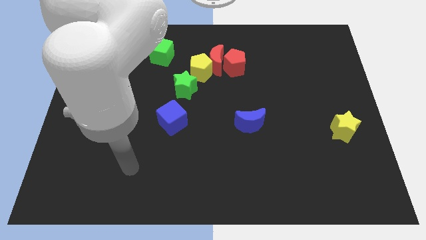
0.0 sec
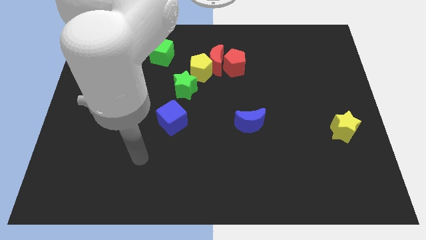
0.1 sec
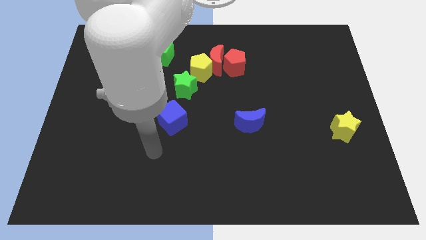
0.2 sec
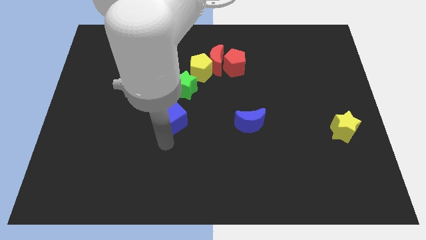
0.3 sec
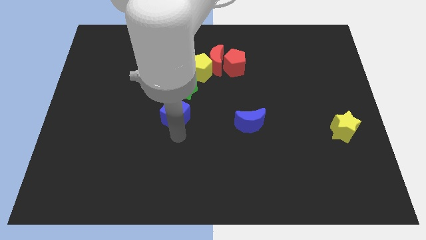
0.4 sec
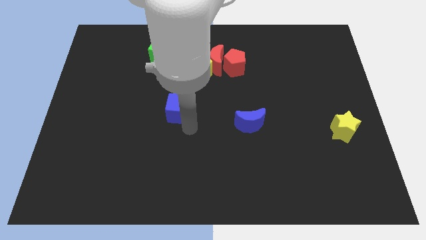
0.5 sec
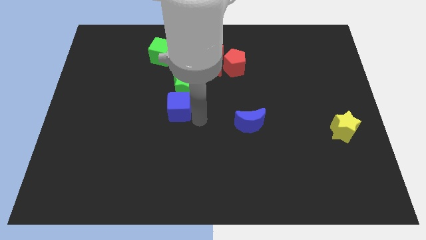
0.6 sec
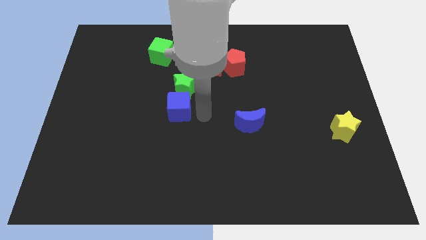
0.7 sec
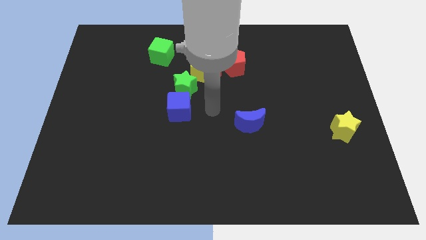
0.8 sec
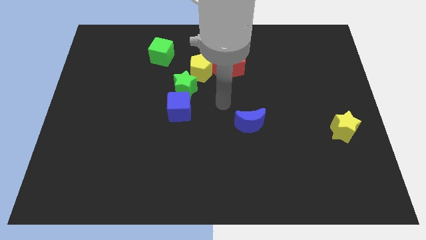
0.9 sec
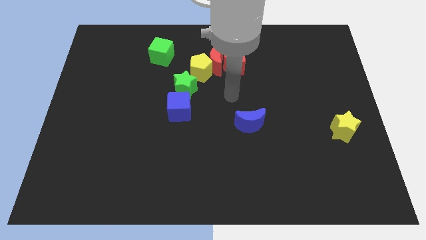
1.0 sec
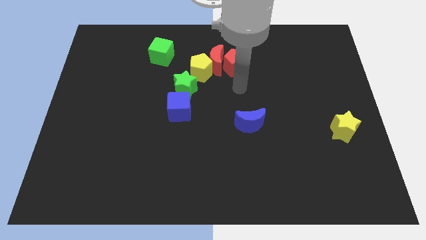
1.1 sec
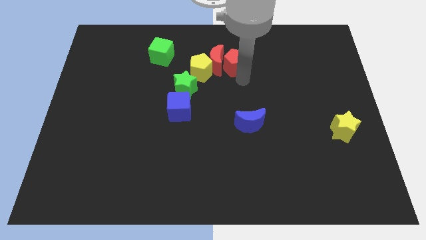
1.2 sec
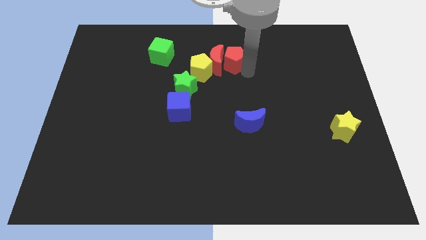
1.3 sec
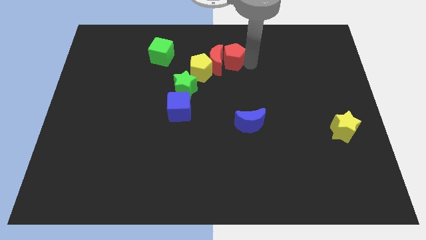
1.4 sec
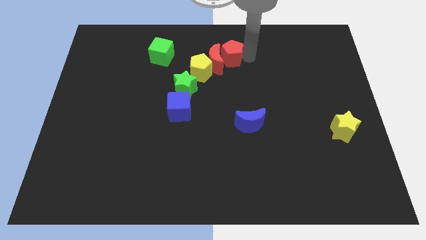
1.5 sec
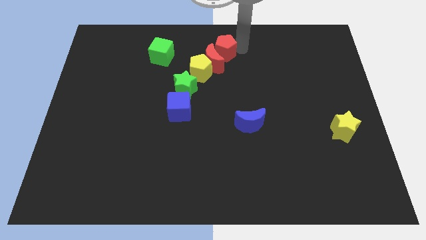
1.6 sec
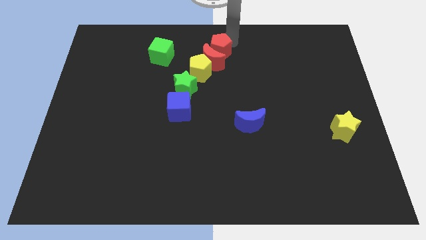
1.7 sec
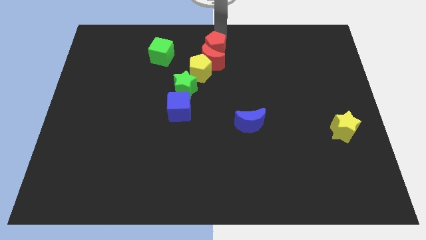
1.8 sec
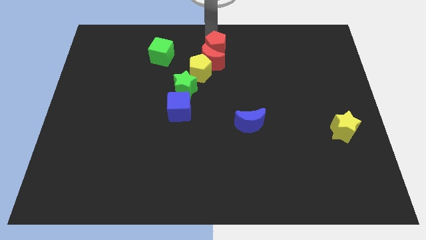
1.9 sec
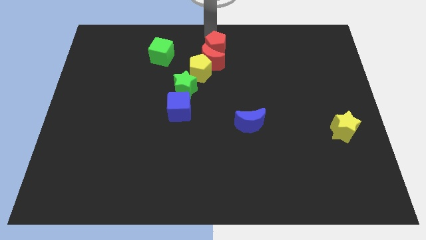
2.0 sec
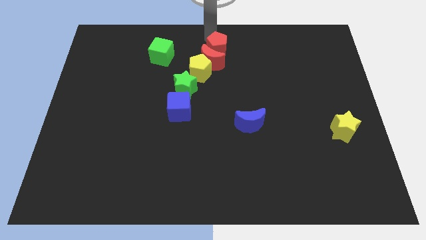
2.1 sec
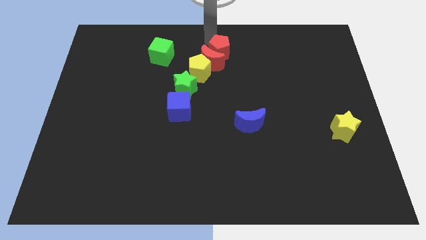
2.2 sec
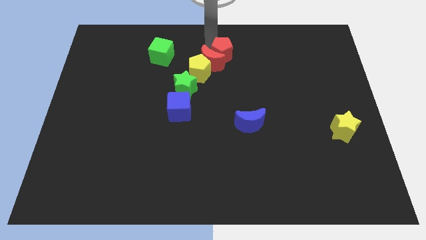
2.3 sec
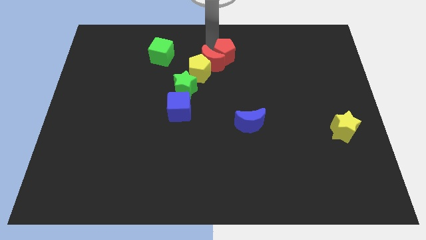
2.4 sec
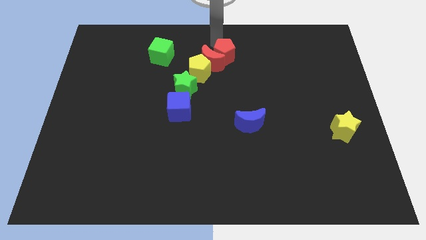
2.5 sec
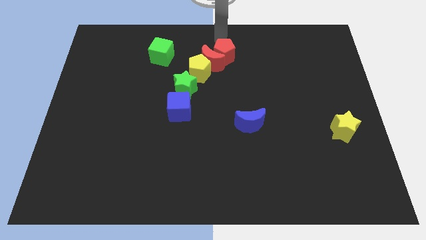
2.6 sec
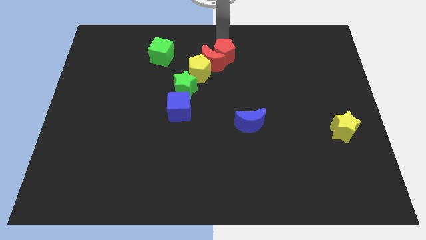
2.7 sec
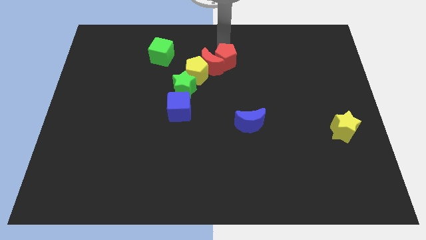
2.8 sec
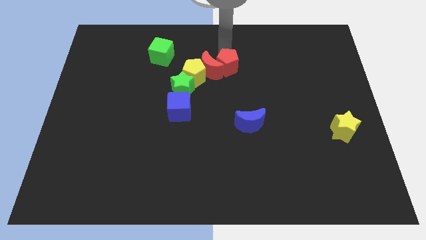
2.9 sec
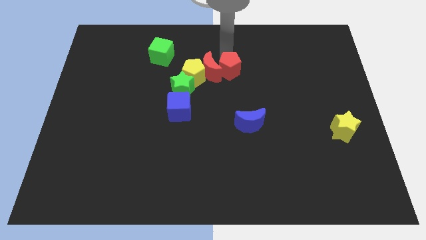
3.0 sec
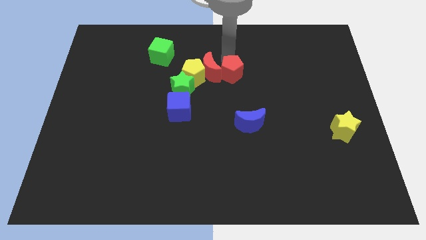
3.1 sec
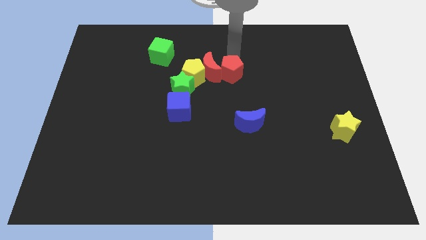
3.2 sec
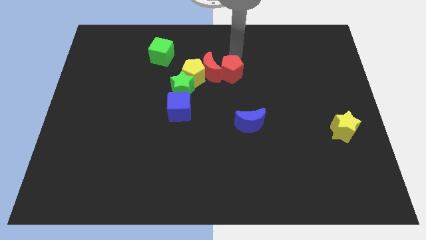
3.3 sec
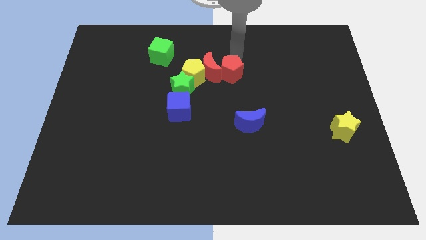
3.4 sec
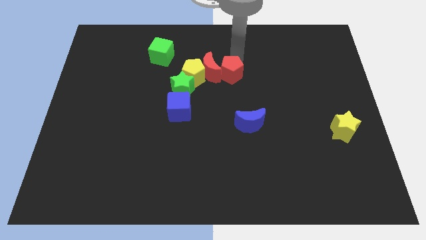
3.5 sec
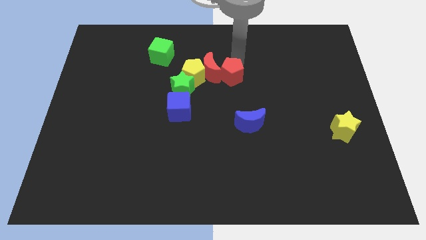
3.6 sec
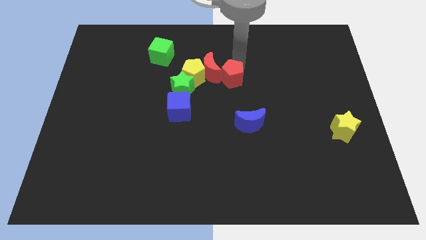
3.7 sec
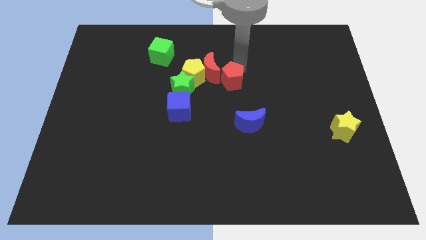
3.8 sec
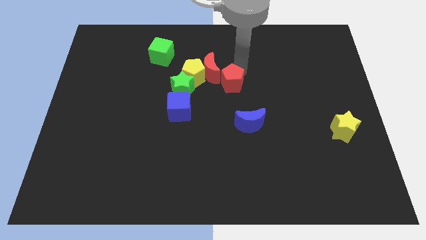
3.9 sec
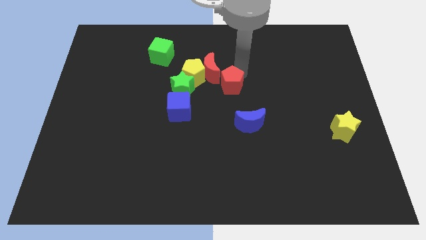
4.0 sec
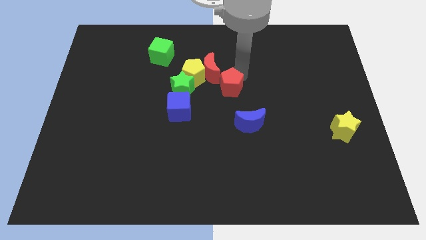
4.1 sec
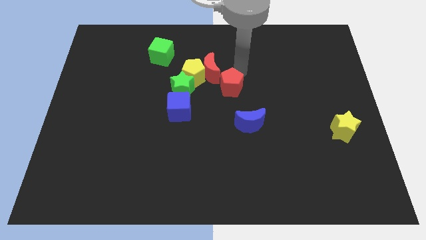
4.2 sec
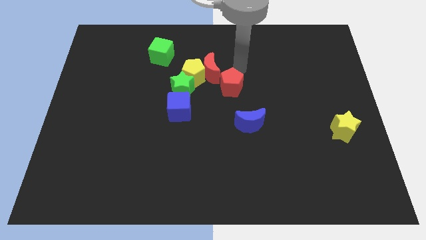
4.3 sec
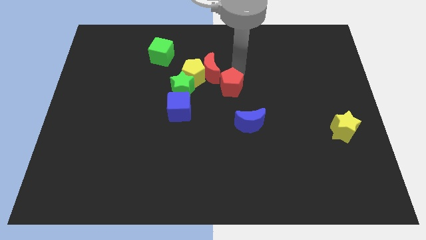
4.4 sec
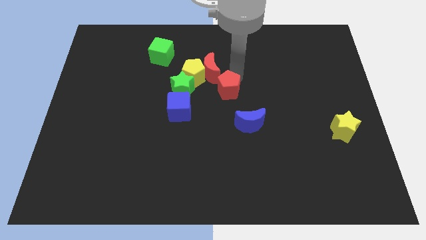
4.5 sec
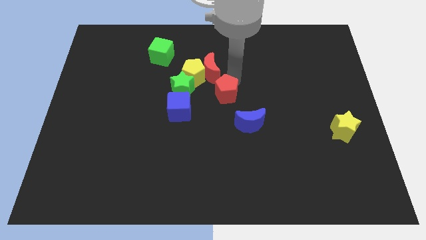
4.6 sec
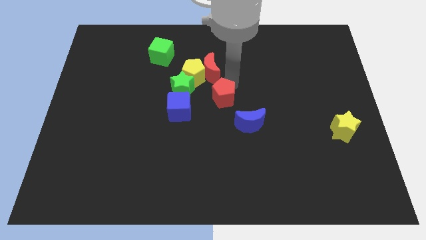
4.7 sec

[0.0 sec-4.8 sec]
move the red pentagon to the right side of the blue cube

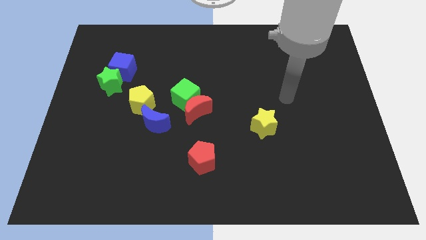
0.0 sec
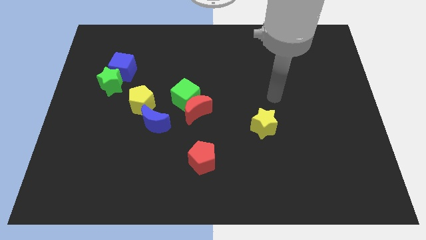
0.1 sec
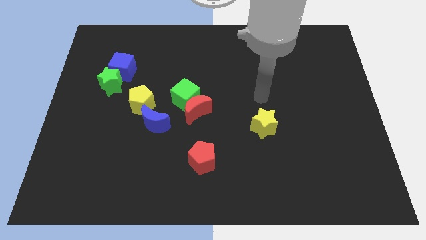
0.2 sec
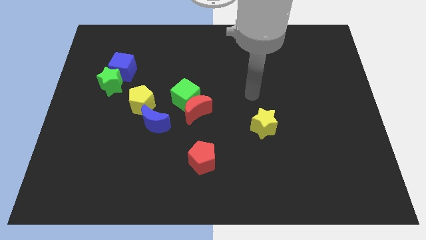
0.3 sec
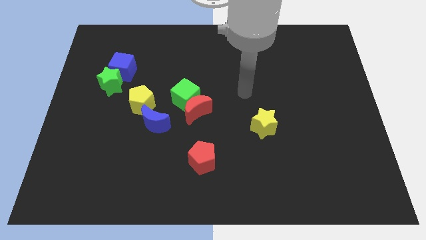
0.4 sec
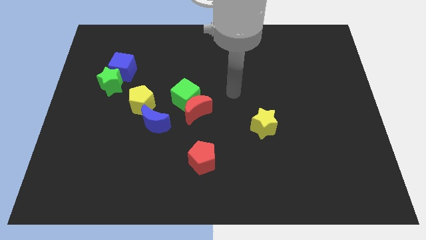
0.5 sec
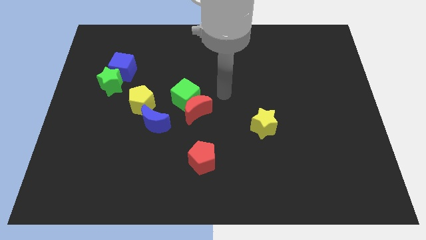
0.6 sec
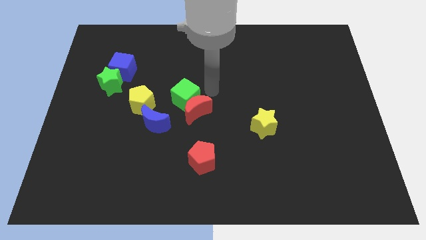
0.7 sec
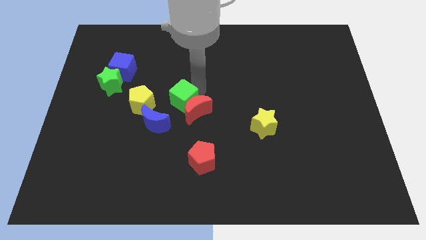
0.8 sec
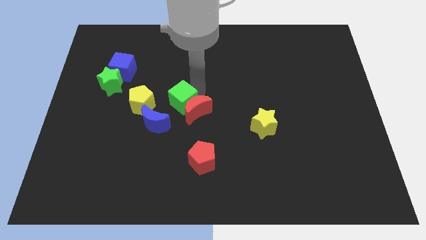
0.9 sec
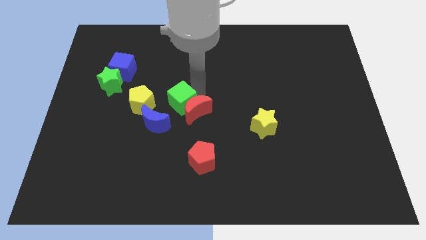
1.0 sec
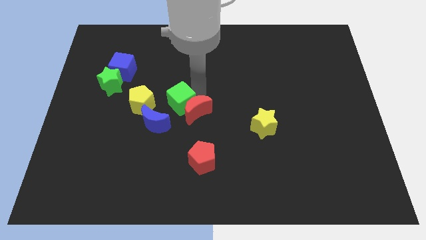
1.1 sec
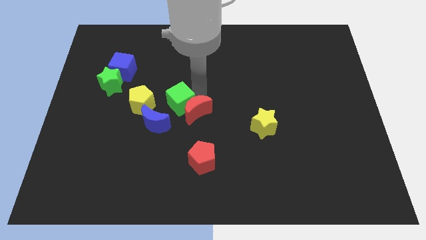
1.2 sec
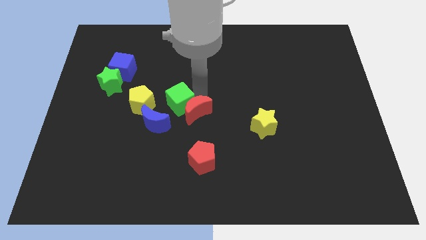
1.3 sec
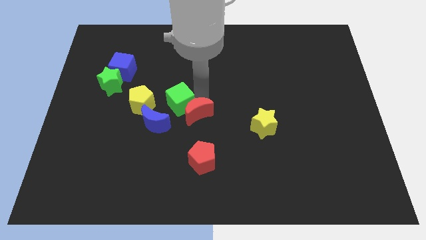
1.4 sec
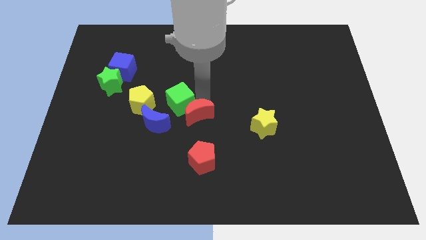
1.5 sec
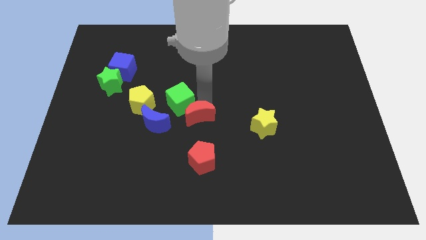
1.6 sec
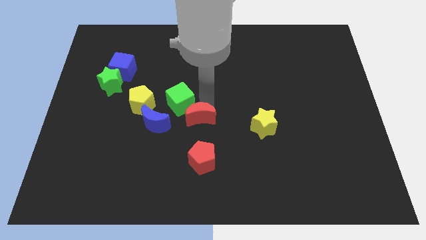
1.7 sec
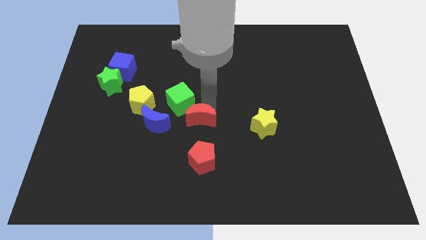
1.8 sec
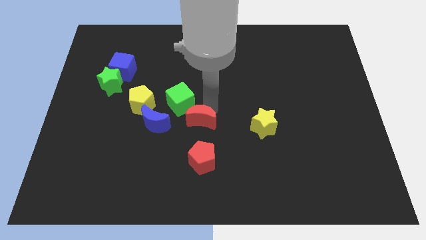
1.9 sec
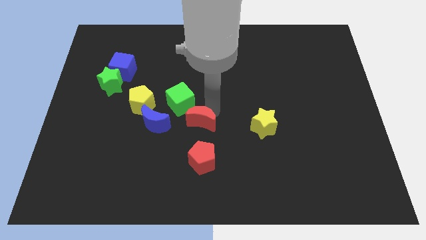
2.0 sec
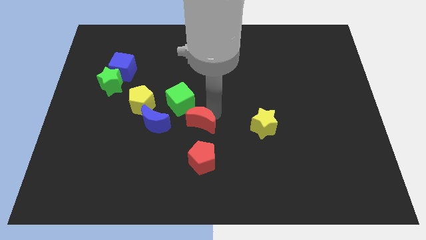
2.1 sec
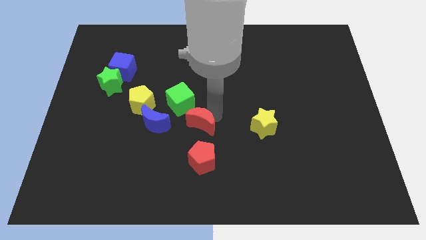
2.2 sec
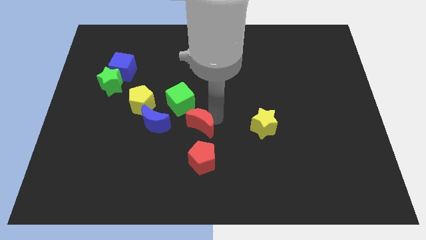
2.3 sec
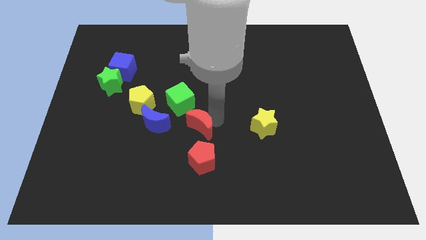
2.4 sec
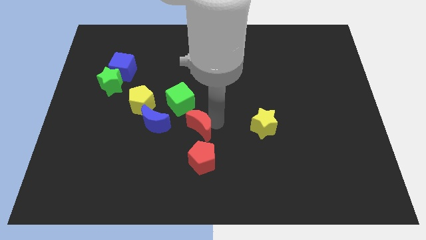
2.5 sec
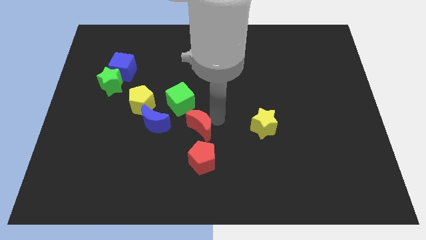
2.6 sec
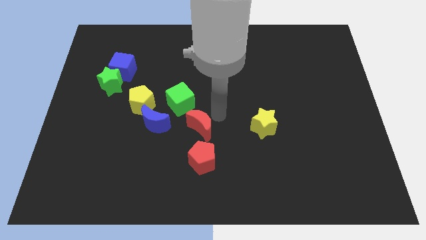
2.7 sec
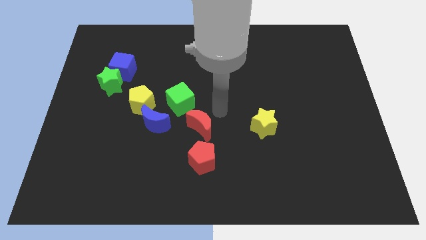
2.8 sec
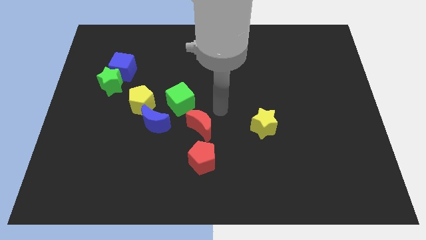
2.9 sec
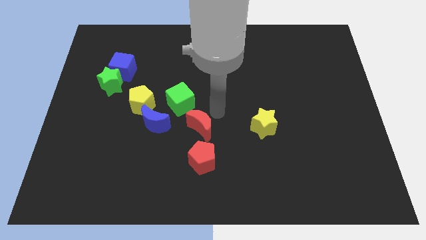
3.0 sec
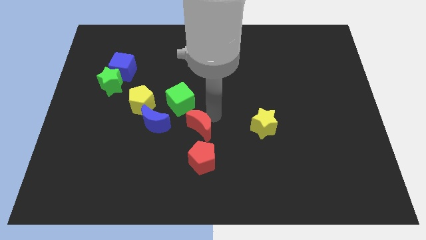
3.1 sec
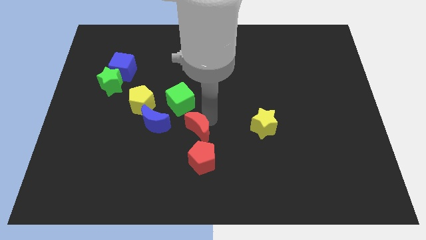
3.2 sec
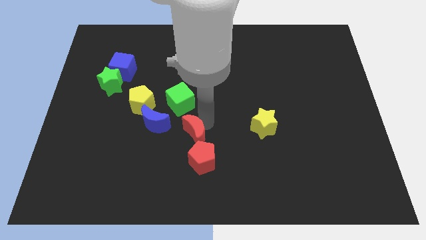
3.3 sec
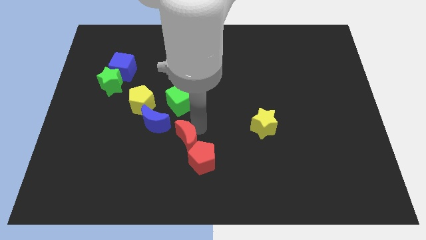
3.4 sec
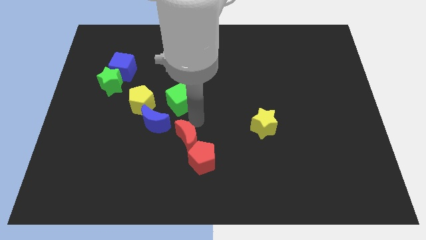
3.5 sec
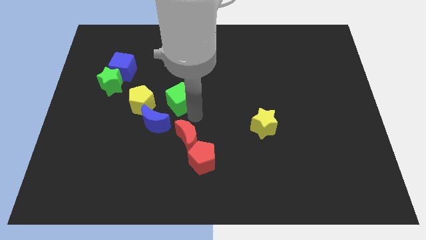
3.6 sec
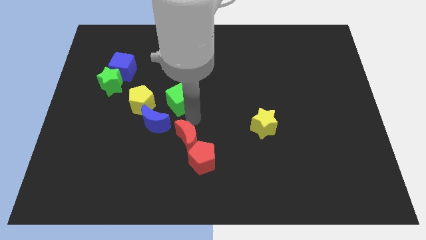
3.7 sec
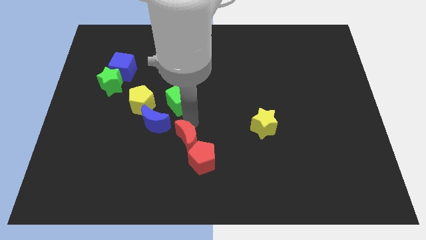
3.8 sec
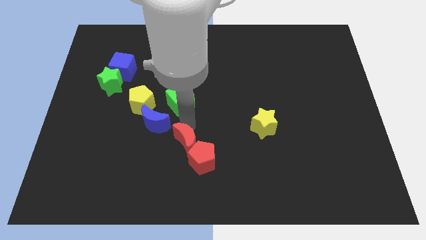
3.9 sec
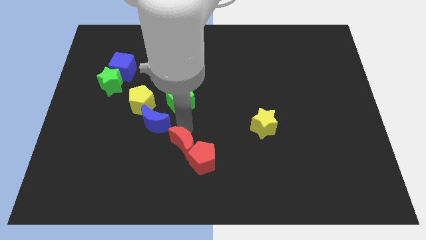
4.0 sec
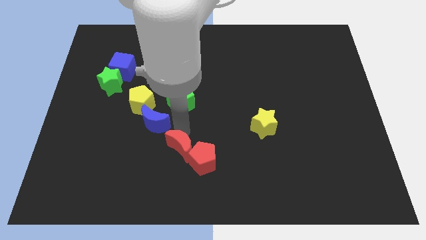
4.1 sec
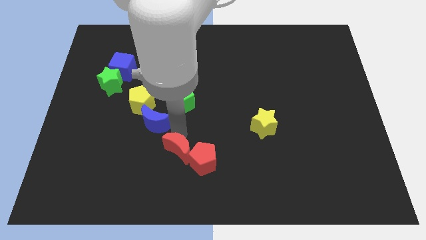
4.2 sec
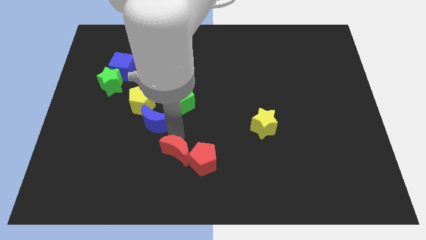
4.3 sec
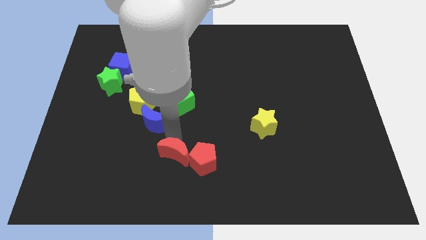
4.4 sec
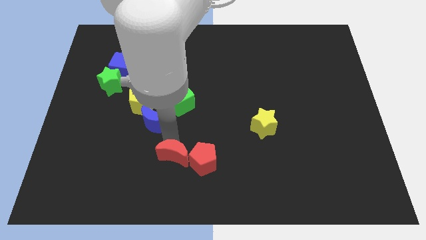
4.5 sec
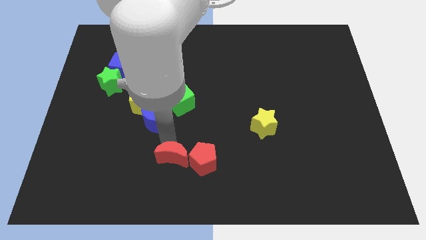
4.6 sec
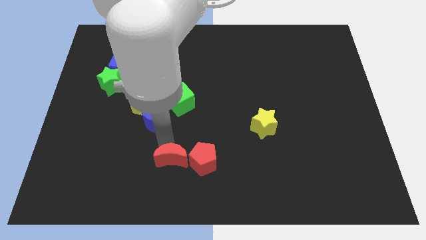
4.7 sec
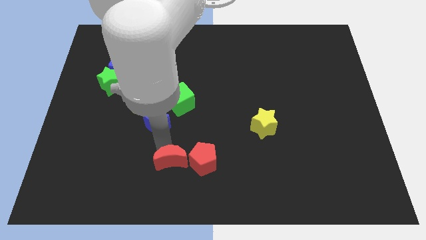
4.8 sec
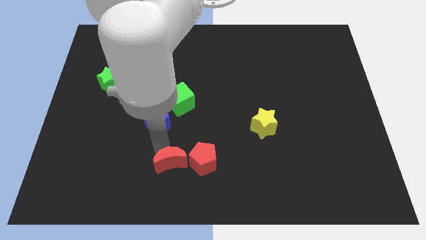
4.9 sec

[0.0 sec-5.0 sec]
push the red moon diagonally down and to the left of the red pentagon
